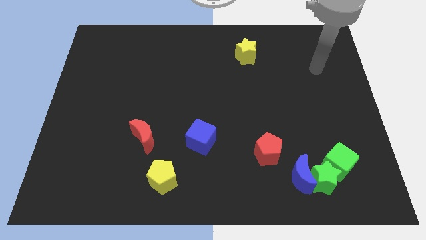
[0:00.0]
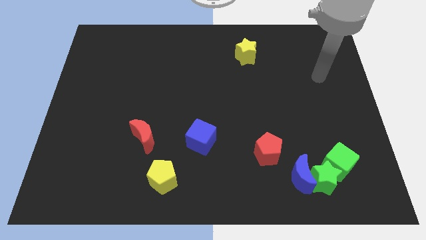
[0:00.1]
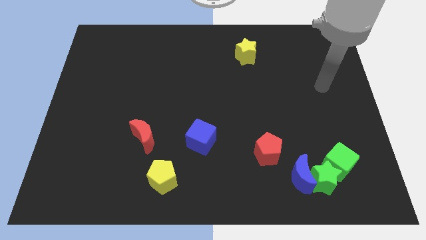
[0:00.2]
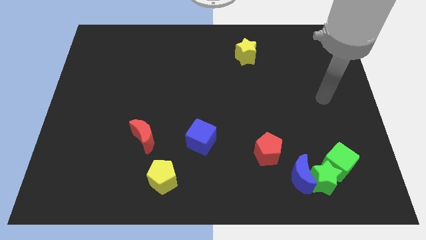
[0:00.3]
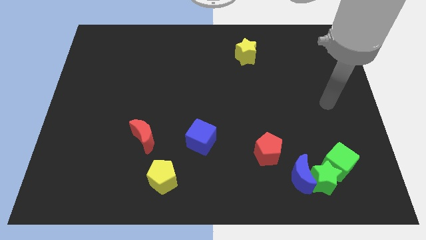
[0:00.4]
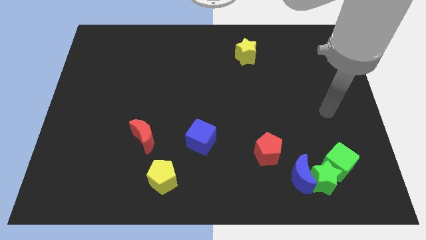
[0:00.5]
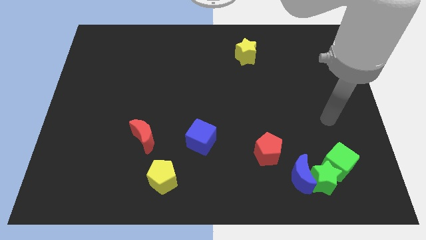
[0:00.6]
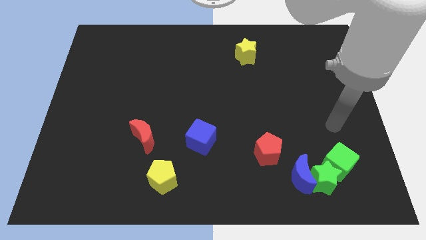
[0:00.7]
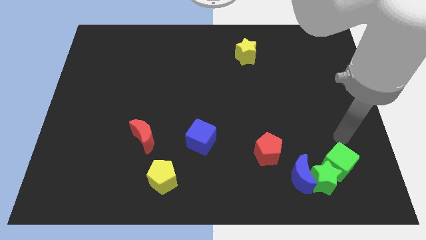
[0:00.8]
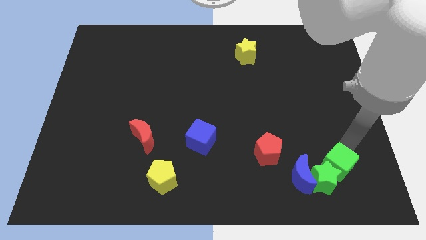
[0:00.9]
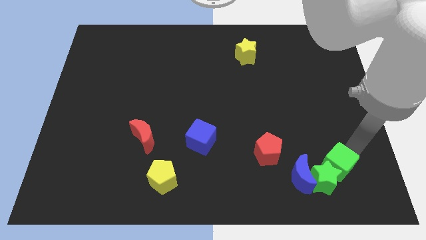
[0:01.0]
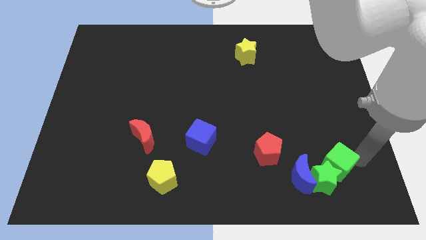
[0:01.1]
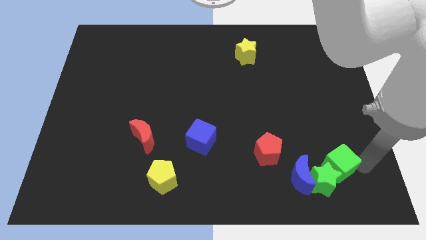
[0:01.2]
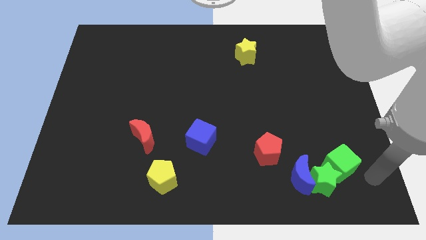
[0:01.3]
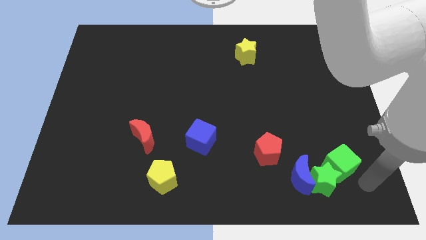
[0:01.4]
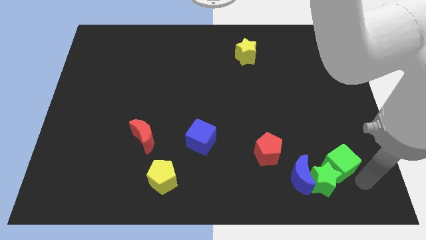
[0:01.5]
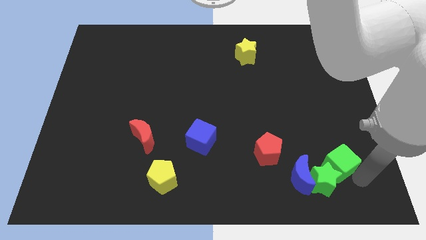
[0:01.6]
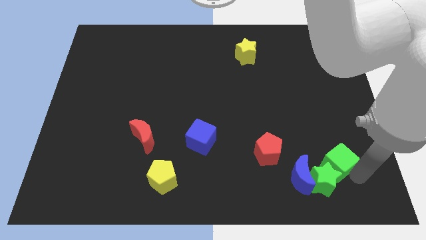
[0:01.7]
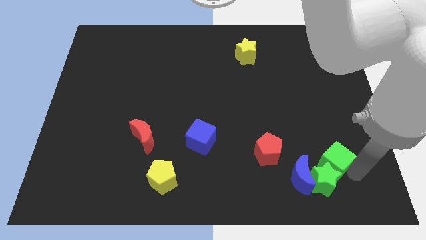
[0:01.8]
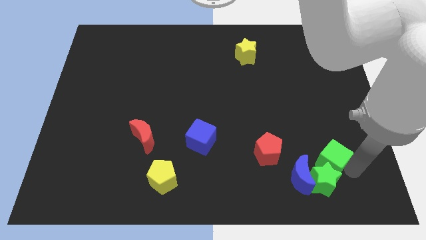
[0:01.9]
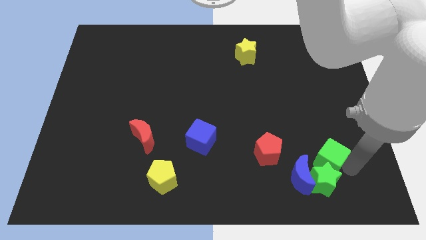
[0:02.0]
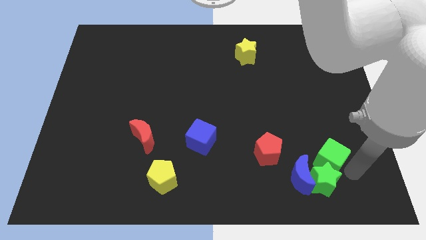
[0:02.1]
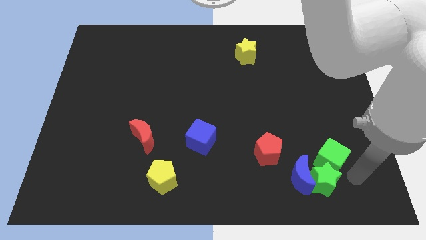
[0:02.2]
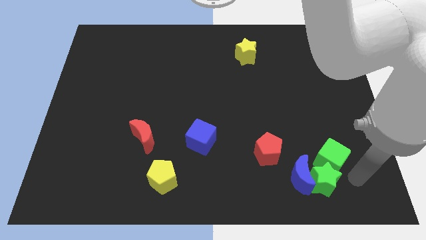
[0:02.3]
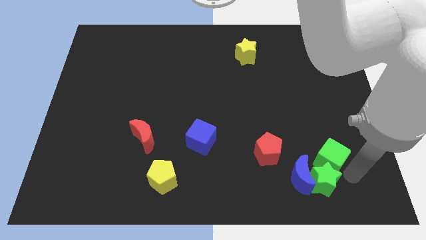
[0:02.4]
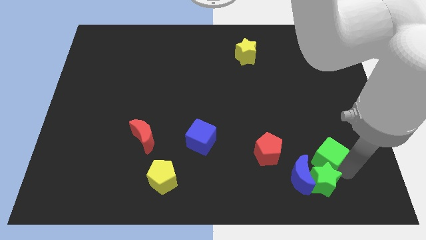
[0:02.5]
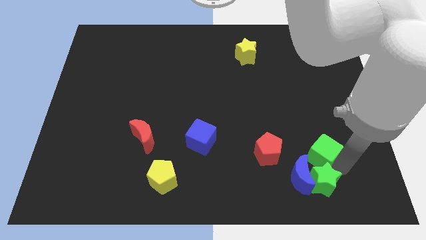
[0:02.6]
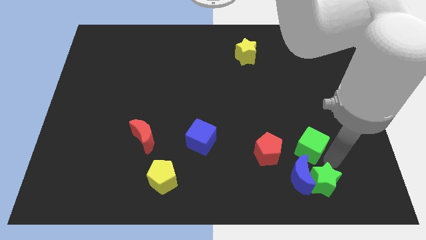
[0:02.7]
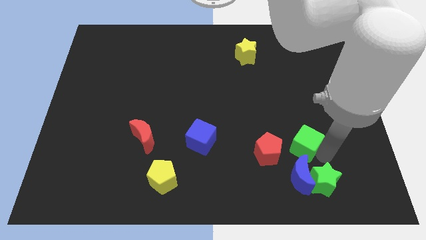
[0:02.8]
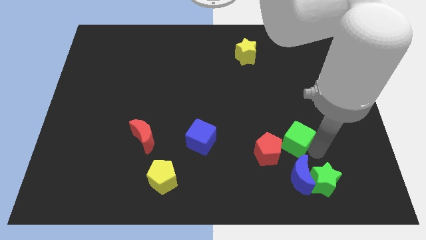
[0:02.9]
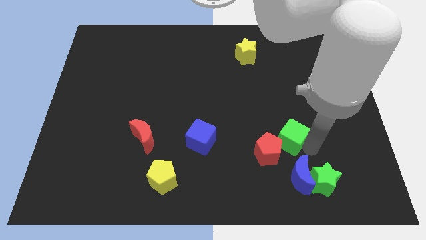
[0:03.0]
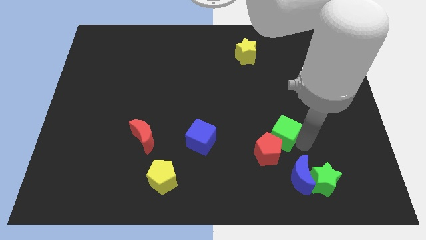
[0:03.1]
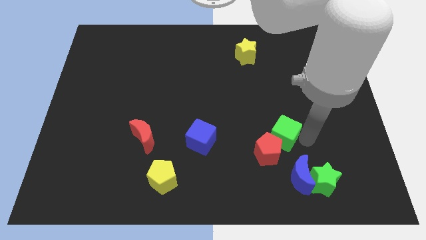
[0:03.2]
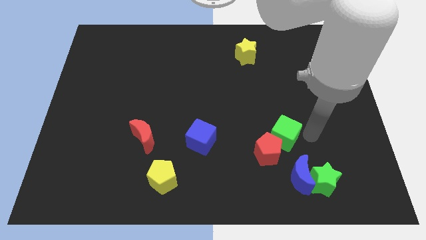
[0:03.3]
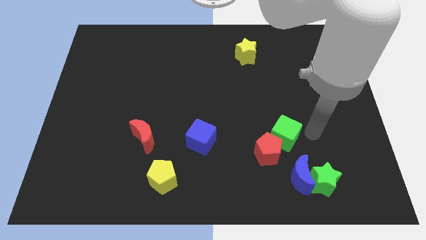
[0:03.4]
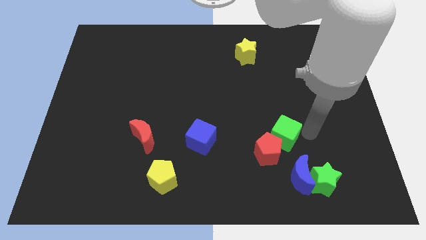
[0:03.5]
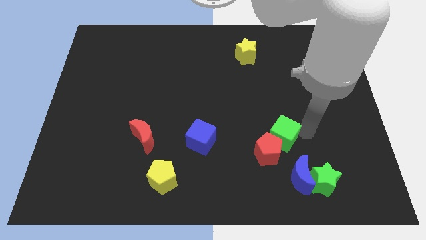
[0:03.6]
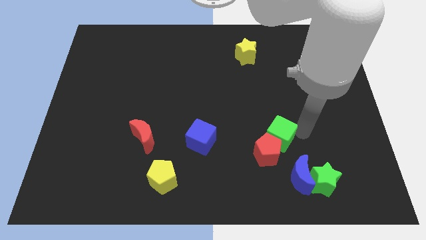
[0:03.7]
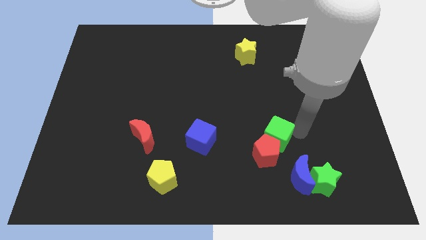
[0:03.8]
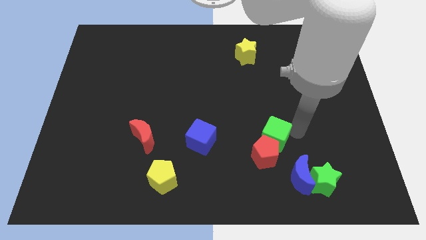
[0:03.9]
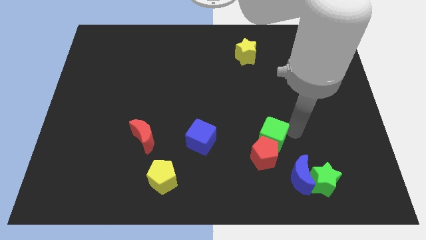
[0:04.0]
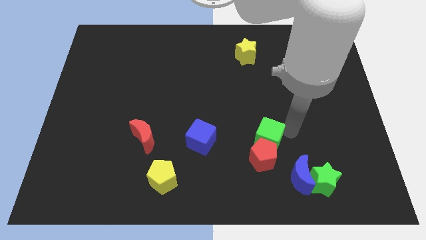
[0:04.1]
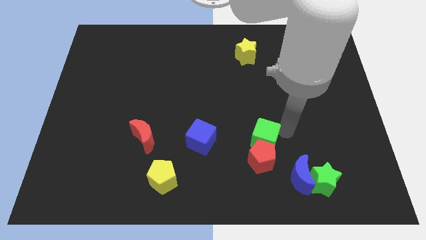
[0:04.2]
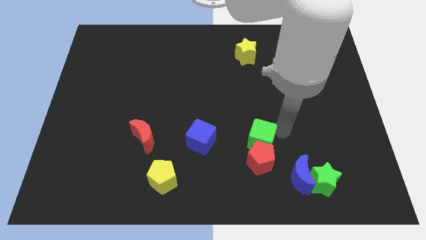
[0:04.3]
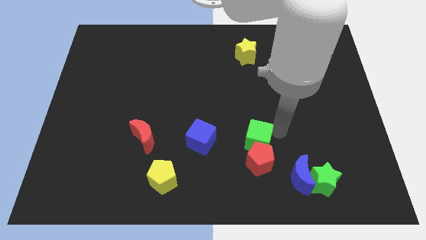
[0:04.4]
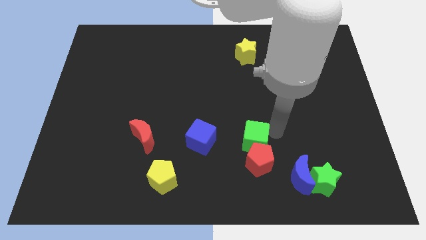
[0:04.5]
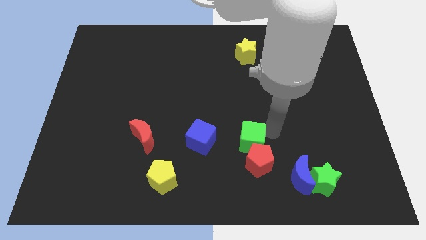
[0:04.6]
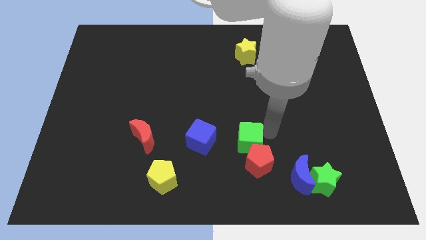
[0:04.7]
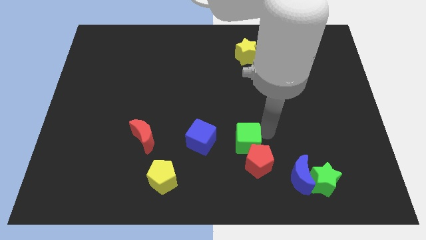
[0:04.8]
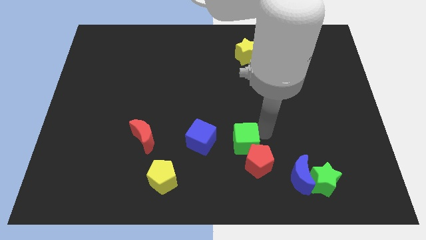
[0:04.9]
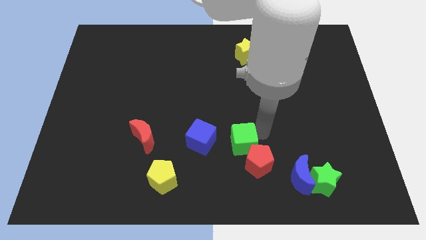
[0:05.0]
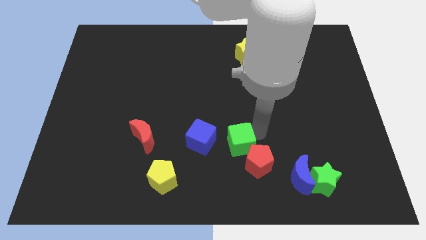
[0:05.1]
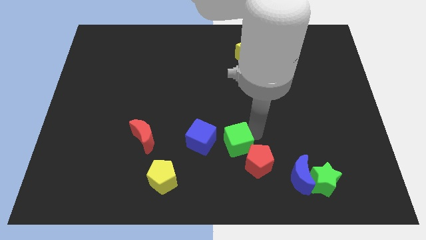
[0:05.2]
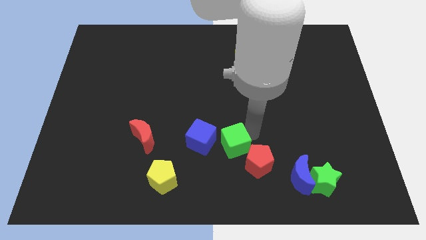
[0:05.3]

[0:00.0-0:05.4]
slide the green cube left

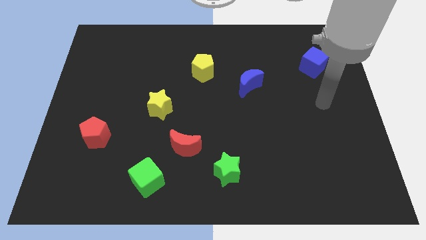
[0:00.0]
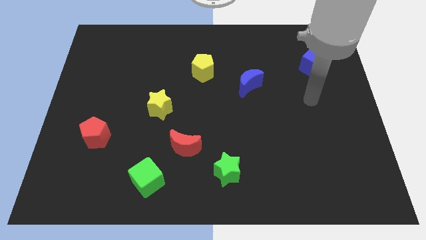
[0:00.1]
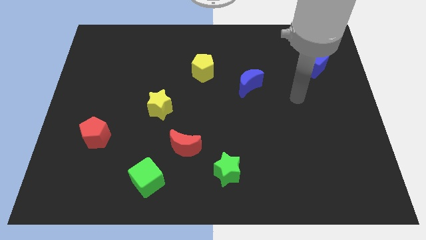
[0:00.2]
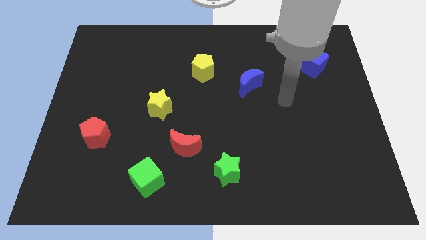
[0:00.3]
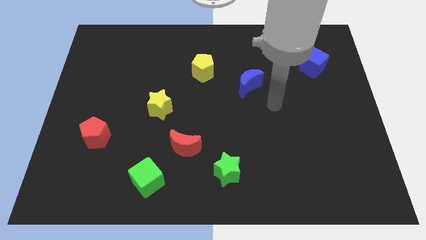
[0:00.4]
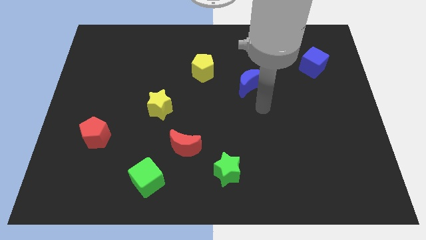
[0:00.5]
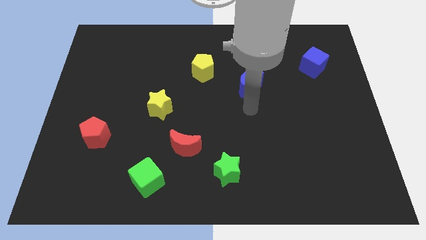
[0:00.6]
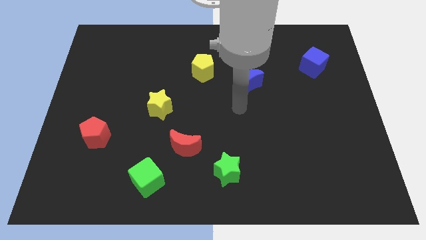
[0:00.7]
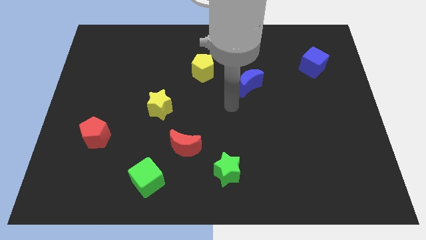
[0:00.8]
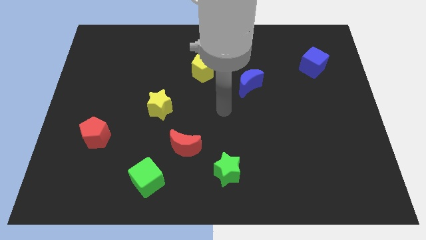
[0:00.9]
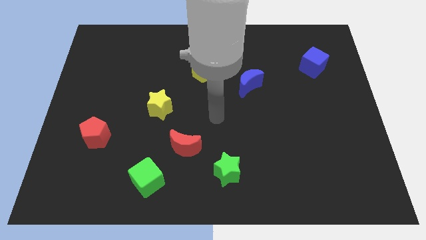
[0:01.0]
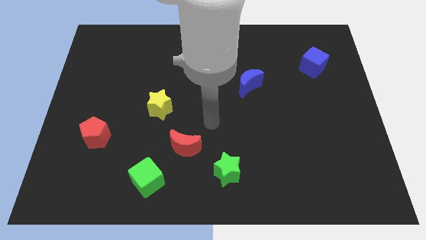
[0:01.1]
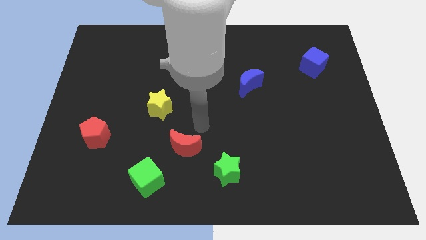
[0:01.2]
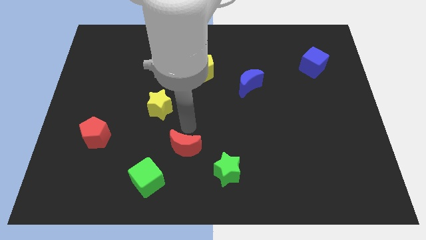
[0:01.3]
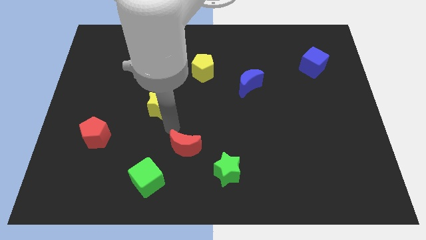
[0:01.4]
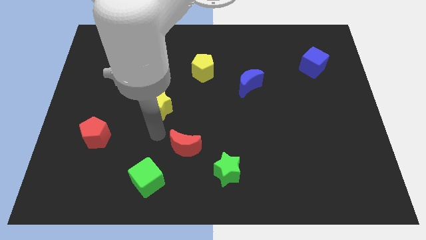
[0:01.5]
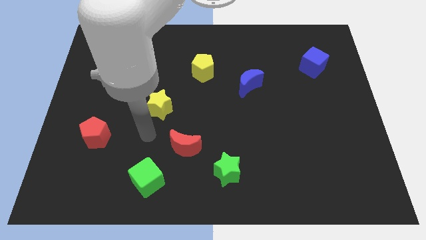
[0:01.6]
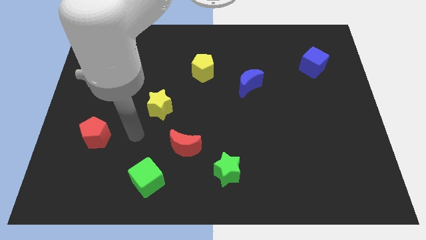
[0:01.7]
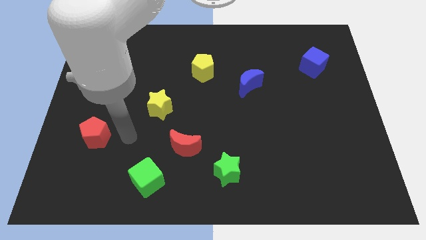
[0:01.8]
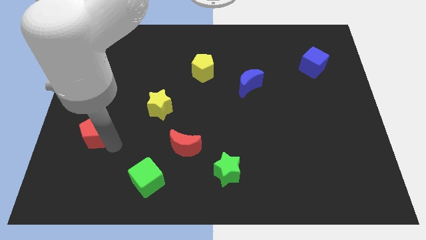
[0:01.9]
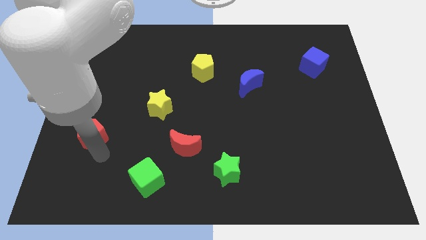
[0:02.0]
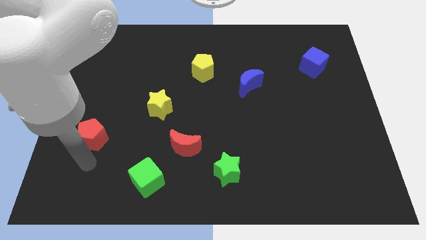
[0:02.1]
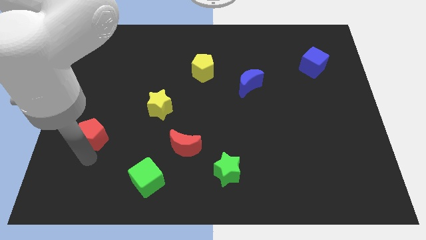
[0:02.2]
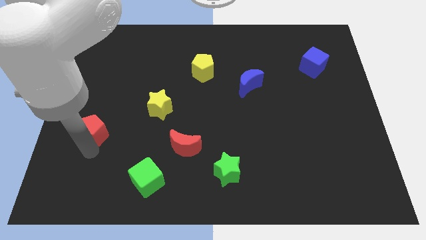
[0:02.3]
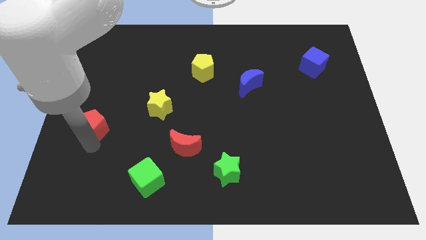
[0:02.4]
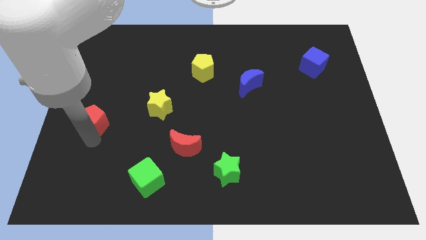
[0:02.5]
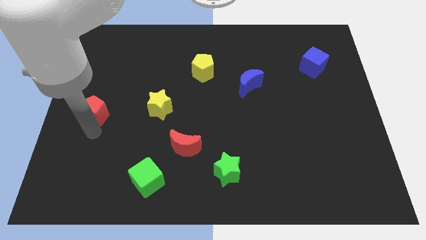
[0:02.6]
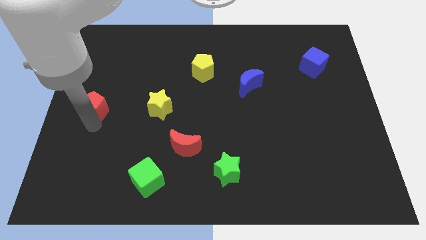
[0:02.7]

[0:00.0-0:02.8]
slightly slide the red pentagon upwards
